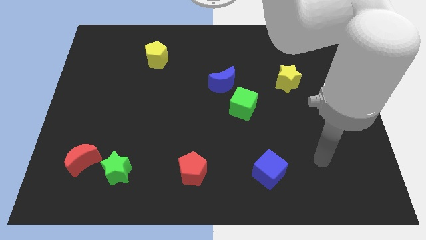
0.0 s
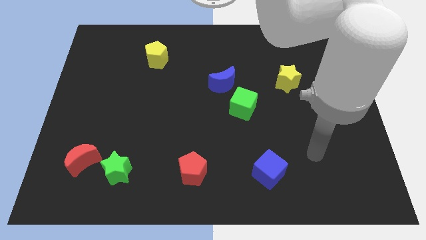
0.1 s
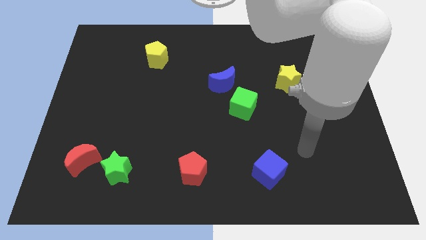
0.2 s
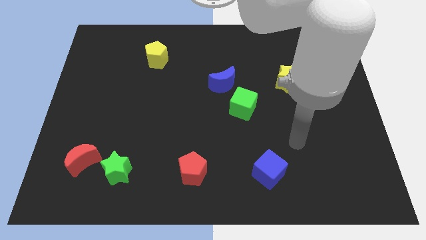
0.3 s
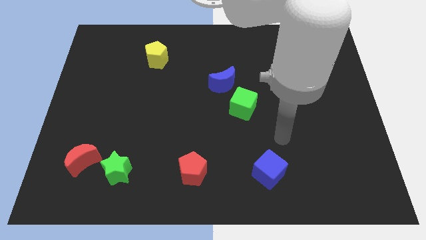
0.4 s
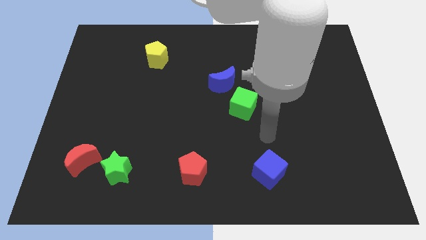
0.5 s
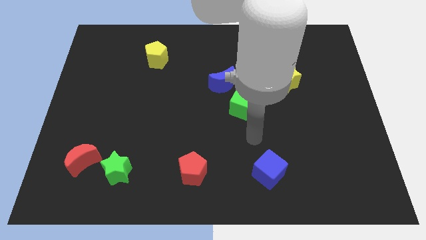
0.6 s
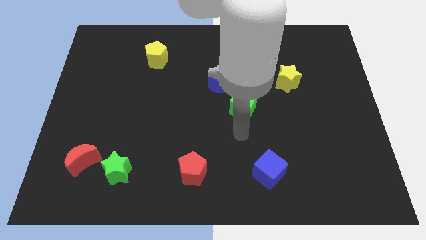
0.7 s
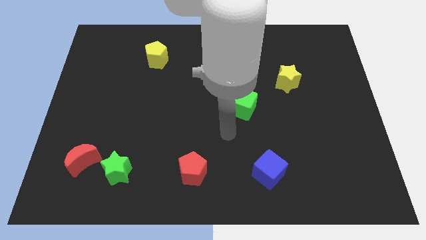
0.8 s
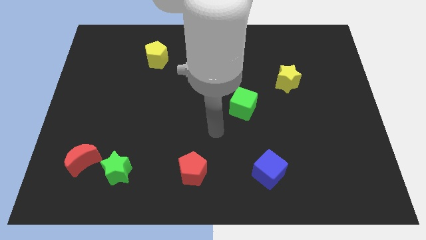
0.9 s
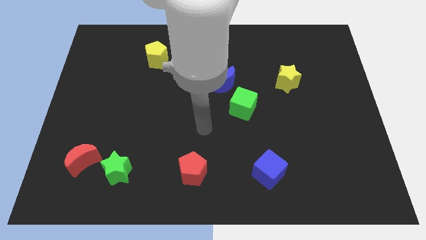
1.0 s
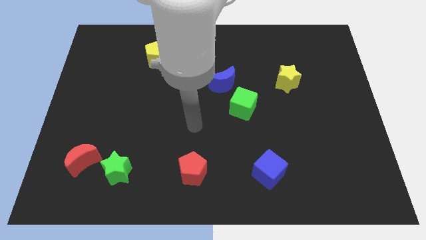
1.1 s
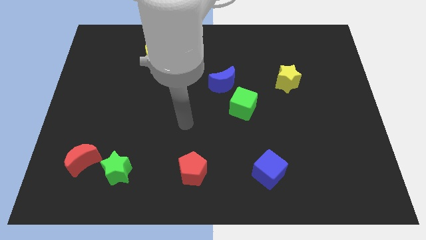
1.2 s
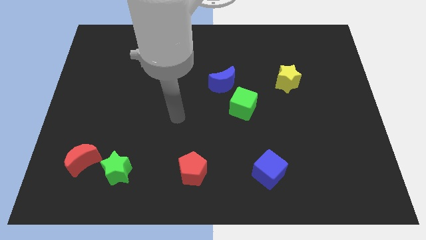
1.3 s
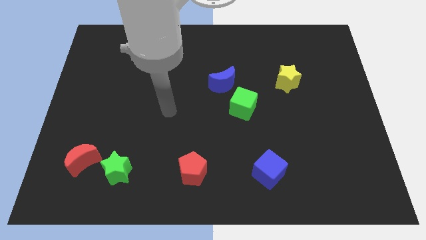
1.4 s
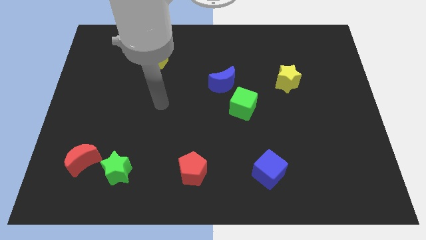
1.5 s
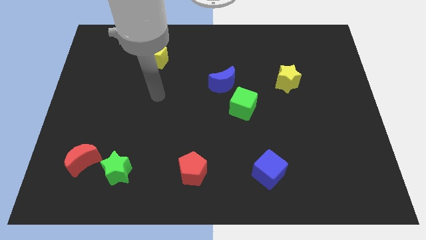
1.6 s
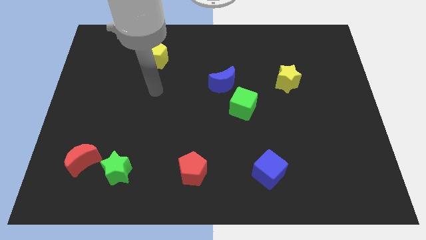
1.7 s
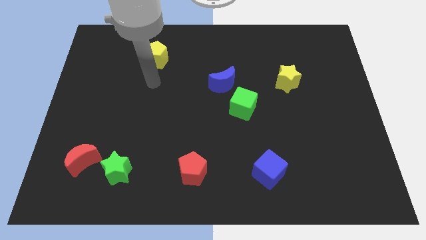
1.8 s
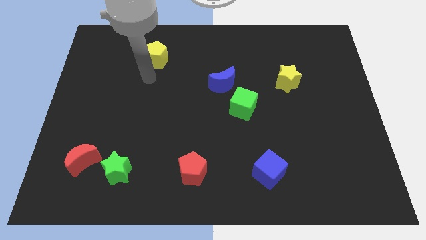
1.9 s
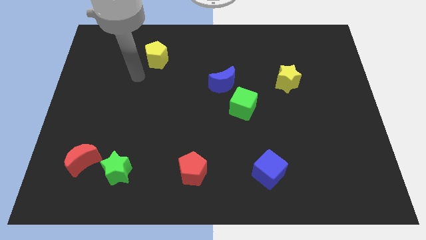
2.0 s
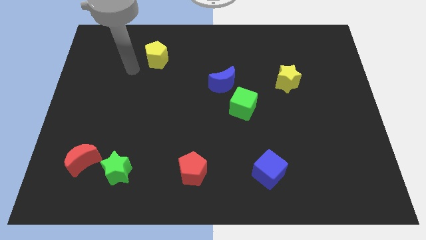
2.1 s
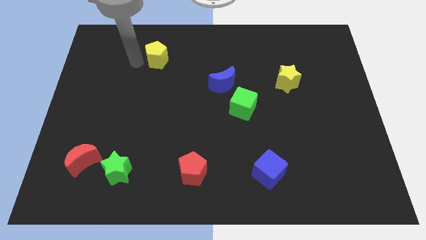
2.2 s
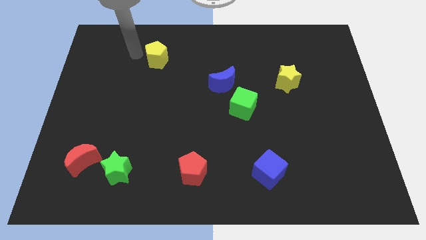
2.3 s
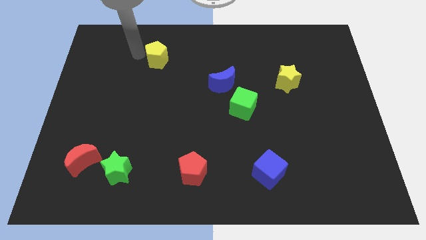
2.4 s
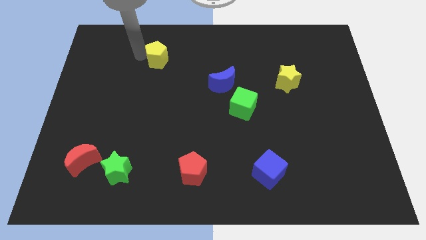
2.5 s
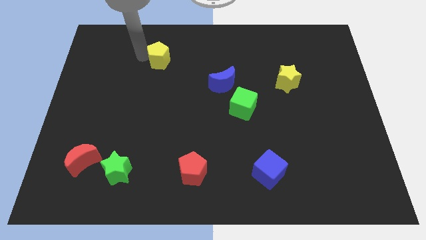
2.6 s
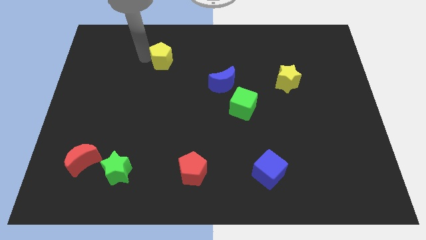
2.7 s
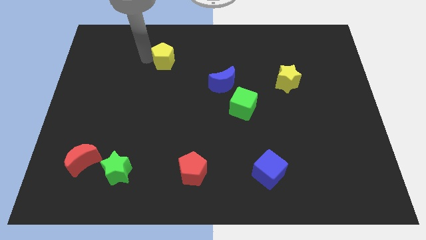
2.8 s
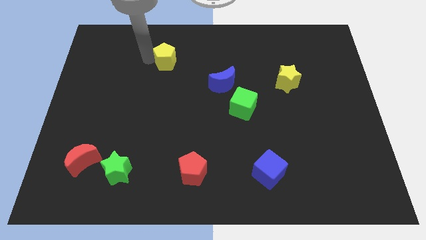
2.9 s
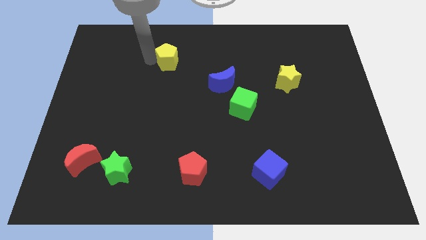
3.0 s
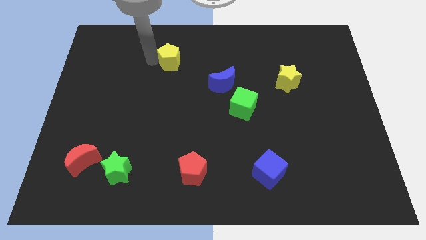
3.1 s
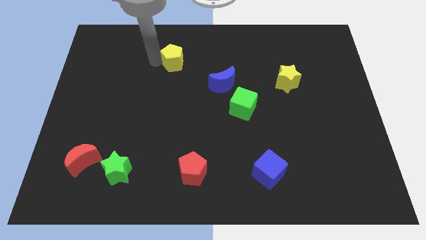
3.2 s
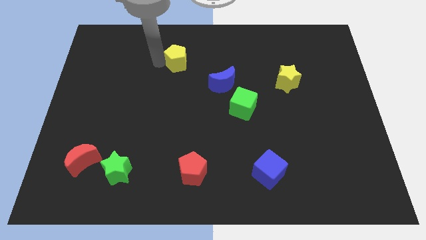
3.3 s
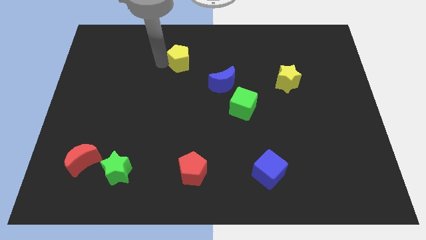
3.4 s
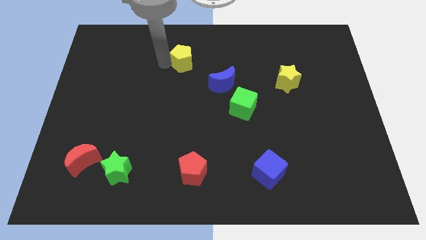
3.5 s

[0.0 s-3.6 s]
move the yellow pentagon somewhat to the right

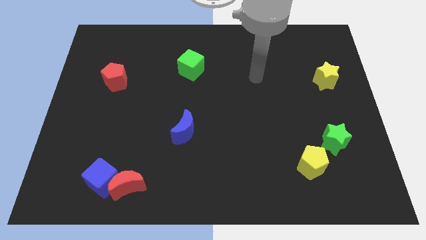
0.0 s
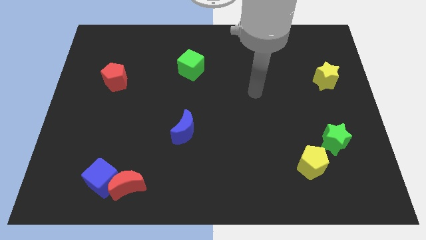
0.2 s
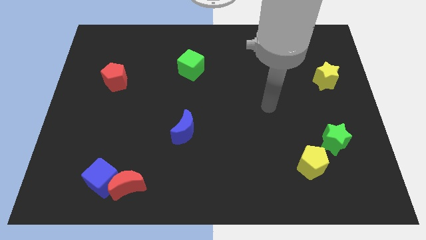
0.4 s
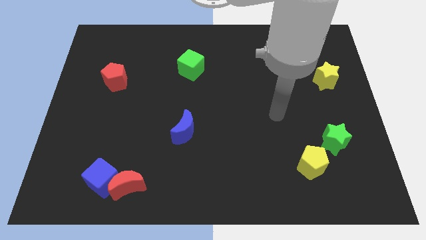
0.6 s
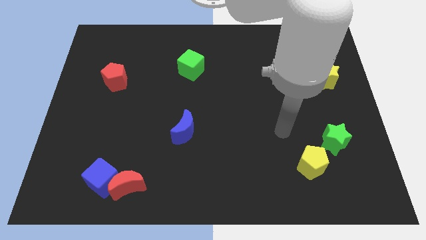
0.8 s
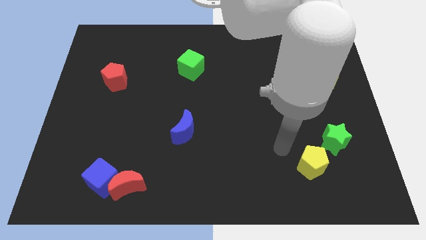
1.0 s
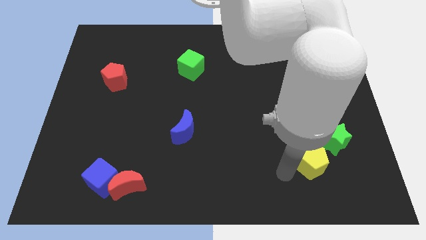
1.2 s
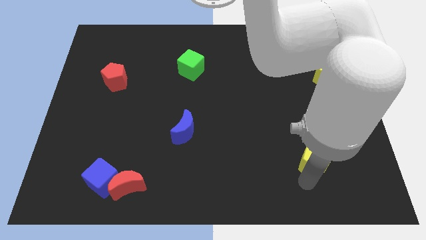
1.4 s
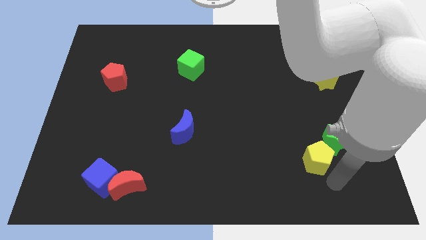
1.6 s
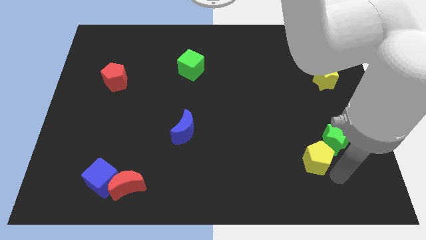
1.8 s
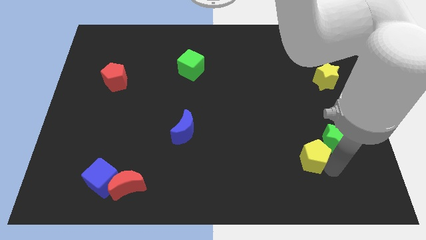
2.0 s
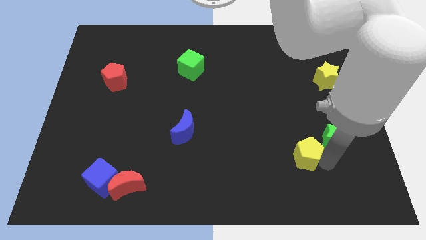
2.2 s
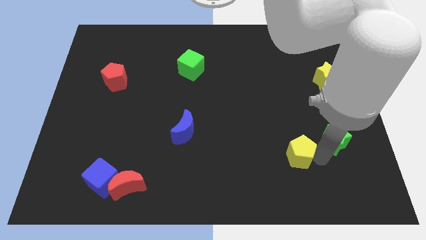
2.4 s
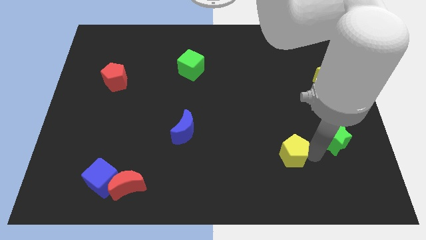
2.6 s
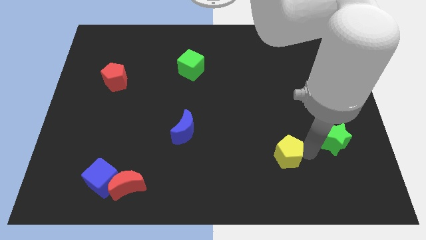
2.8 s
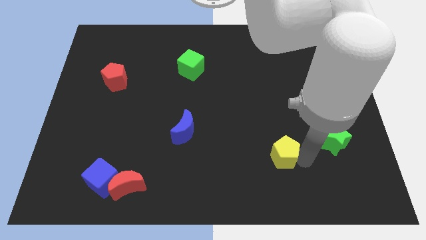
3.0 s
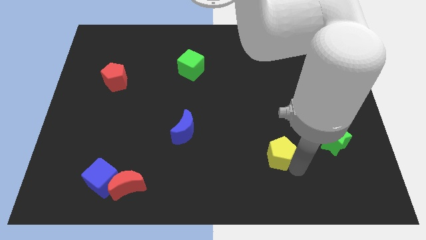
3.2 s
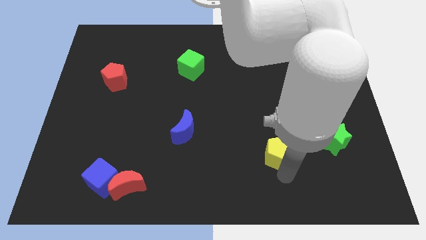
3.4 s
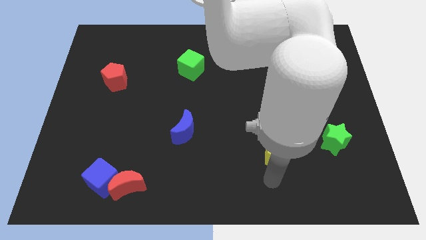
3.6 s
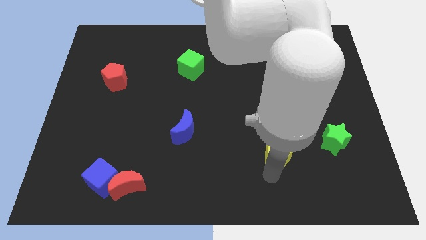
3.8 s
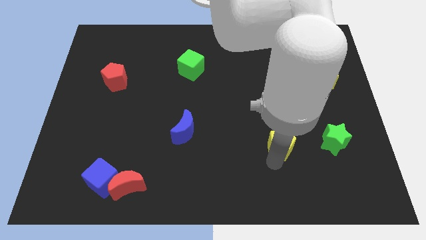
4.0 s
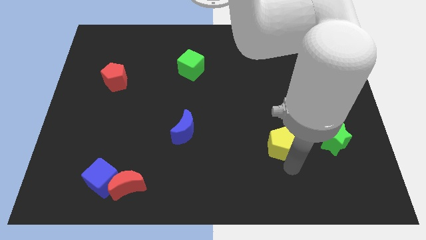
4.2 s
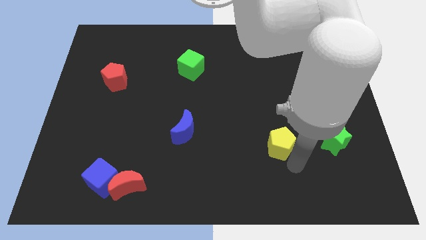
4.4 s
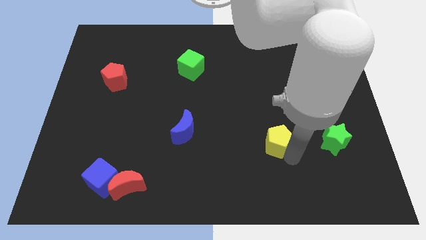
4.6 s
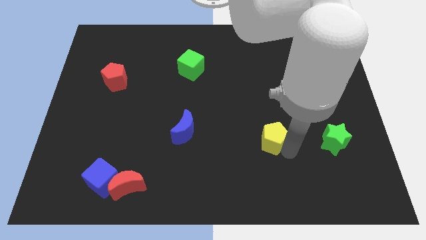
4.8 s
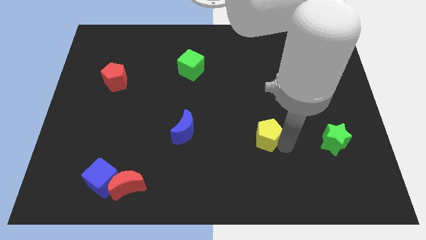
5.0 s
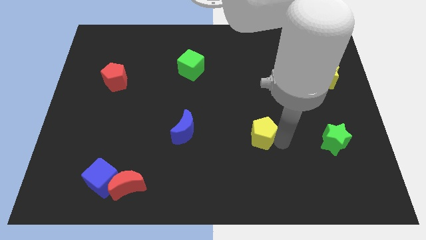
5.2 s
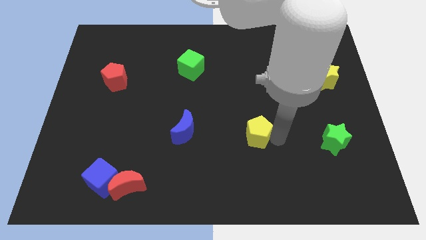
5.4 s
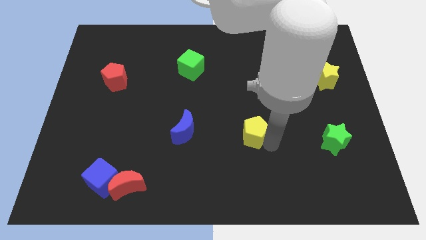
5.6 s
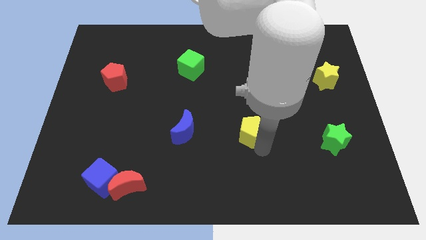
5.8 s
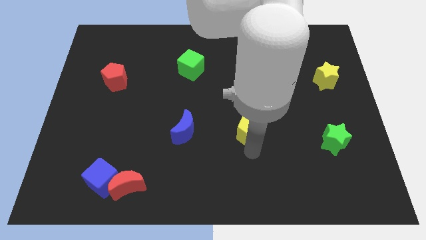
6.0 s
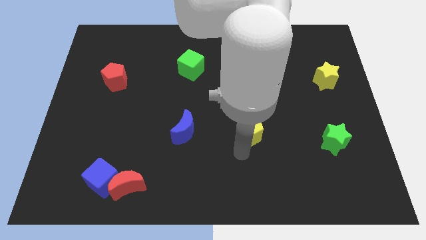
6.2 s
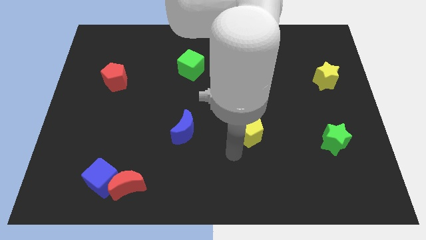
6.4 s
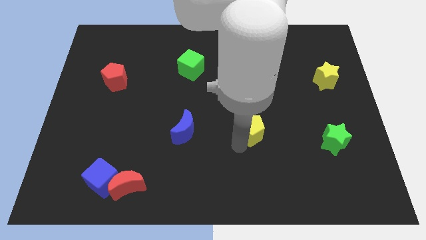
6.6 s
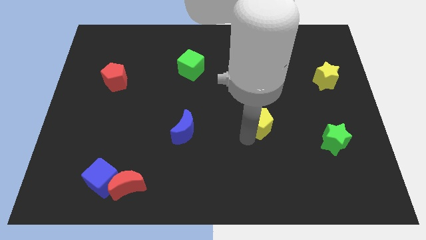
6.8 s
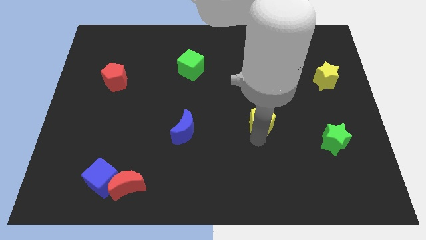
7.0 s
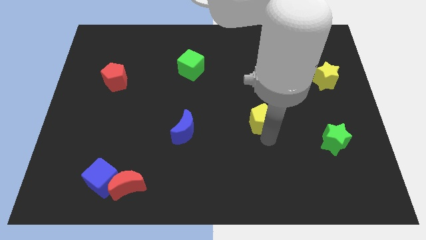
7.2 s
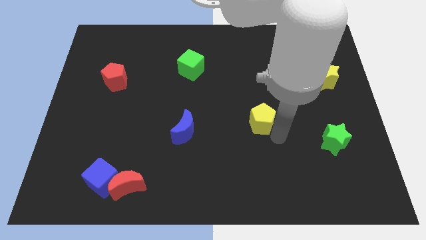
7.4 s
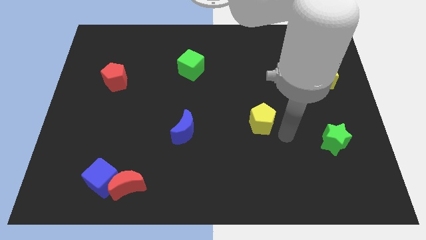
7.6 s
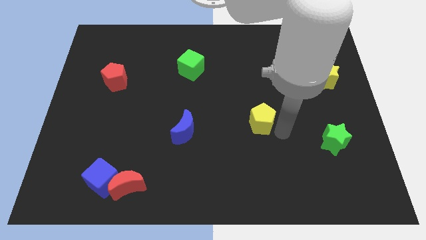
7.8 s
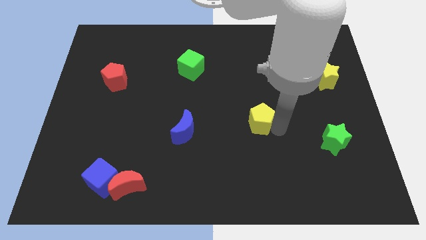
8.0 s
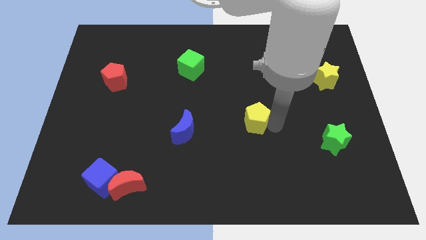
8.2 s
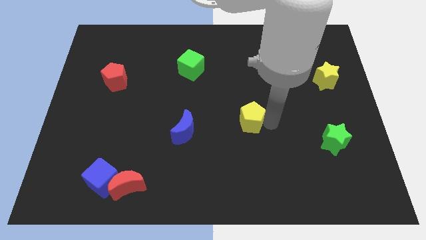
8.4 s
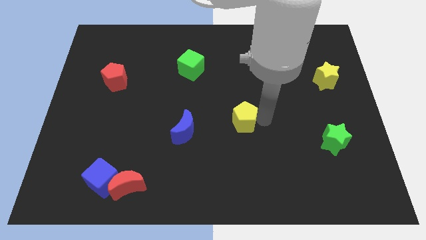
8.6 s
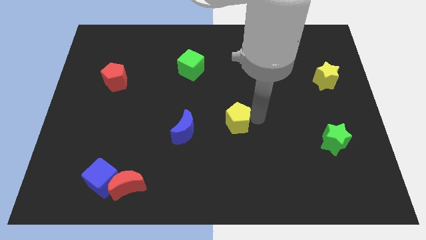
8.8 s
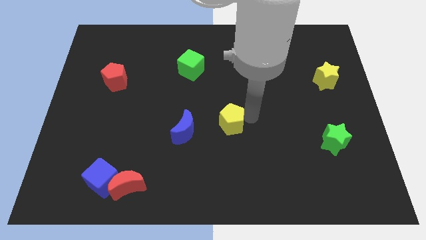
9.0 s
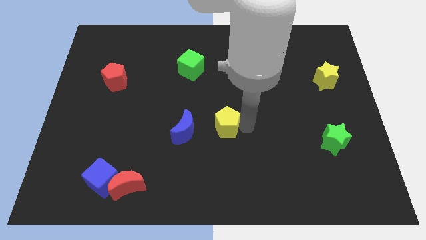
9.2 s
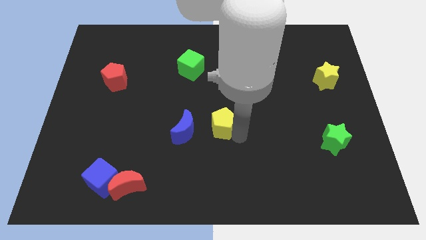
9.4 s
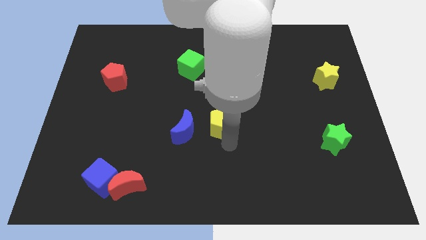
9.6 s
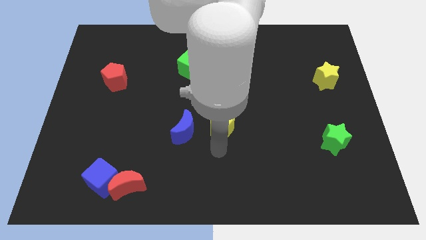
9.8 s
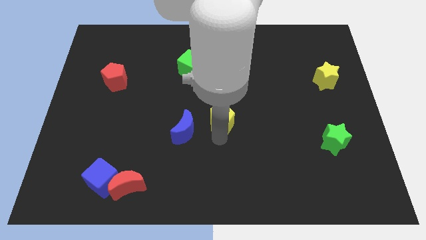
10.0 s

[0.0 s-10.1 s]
slide the yellow pentagon up and then left
